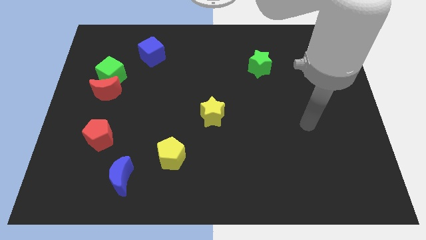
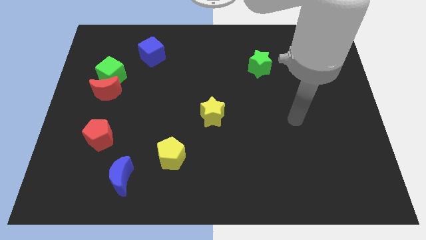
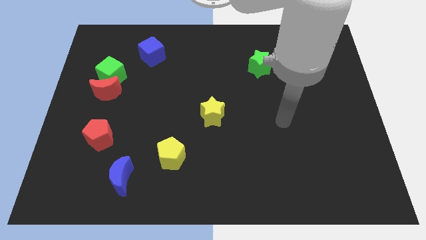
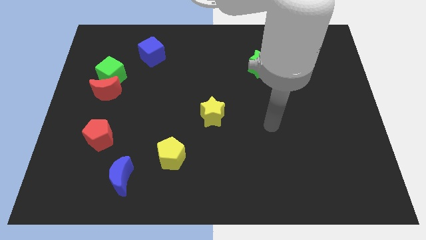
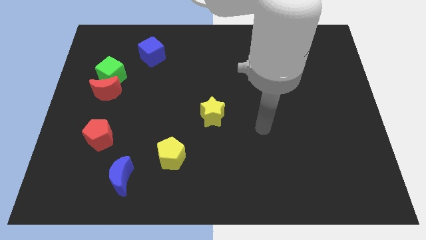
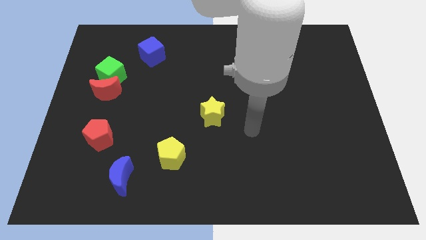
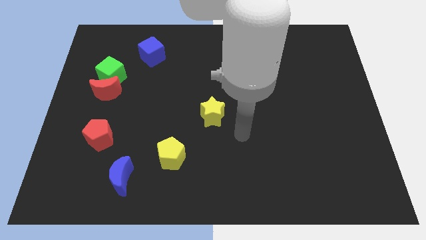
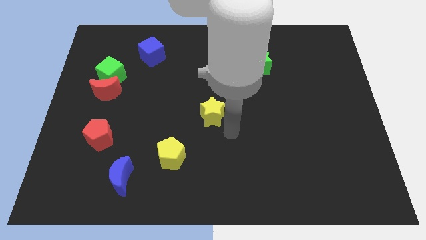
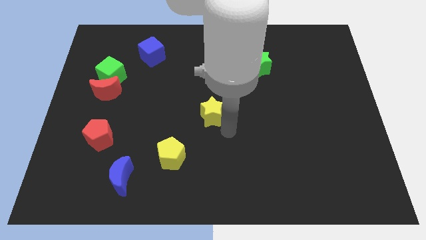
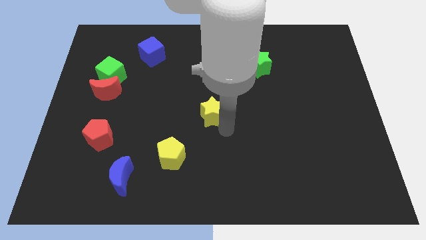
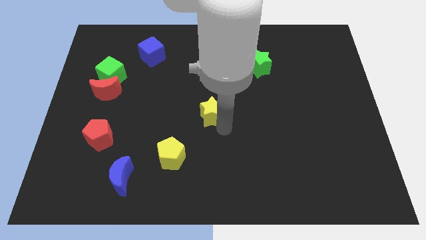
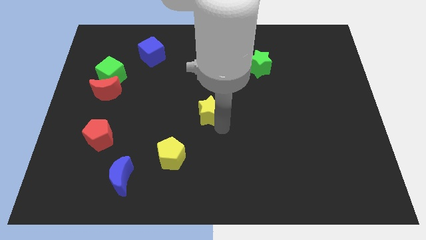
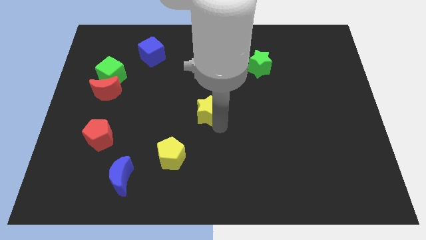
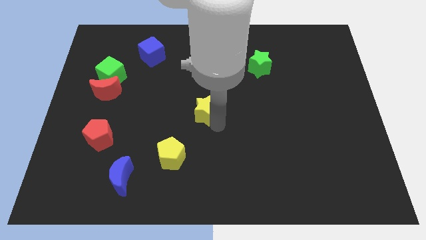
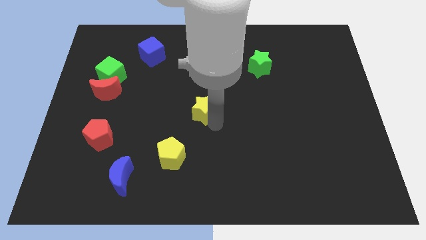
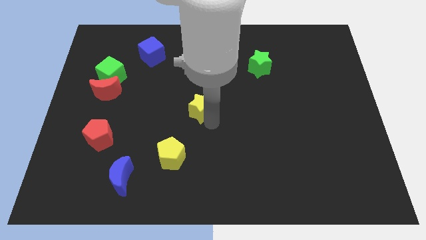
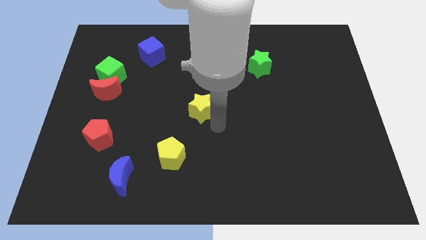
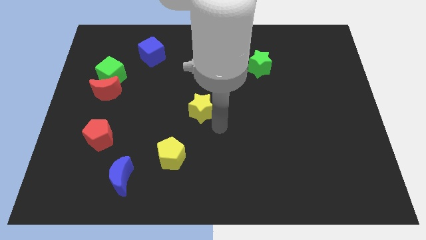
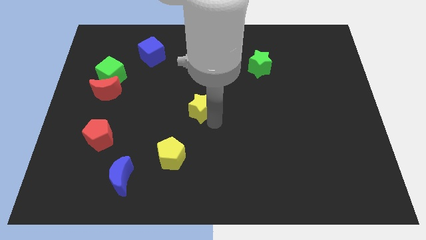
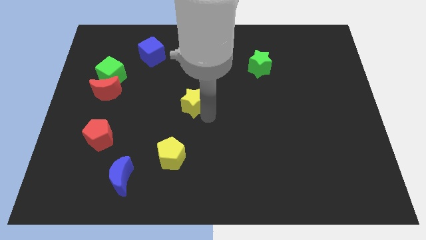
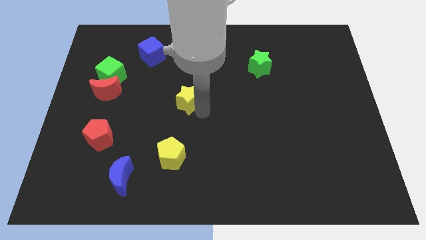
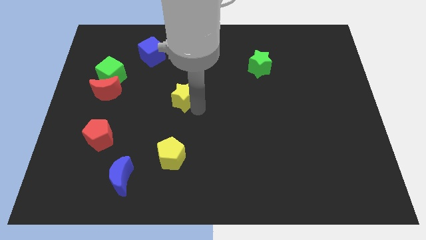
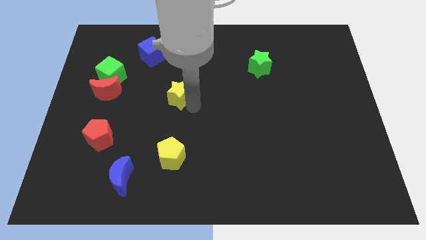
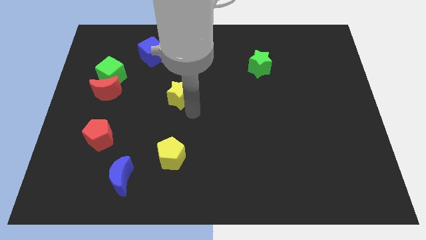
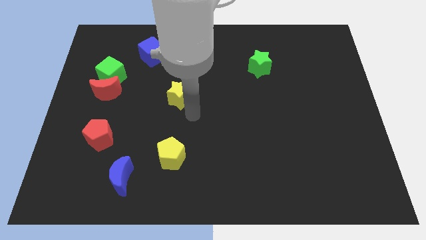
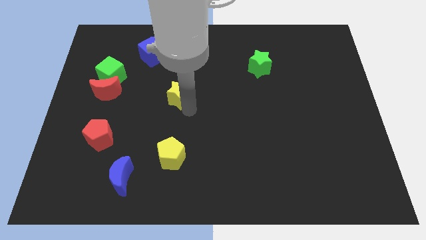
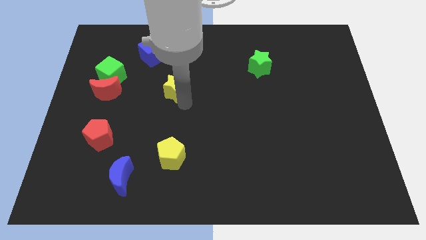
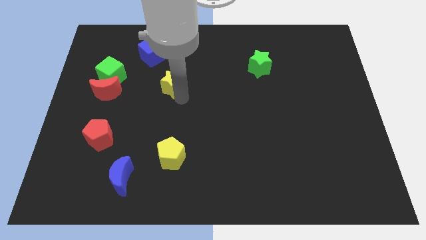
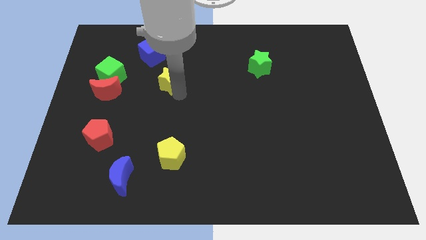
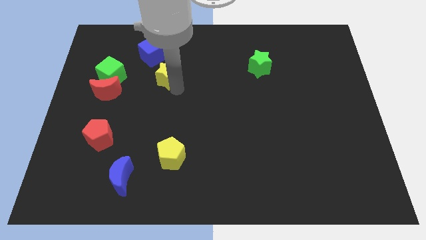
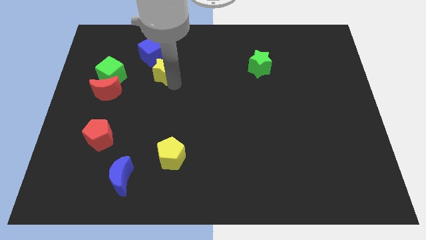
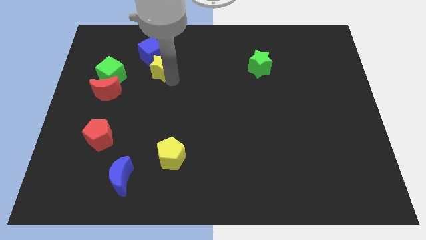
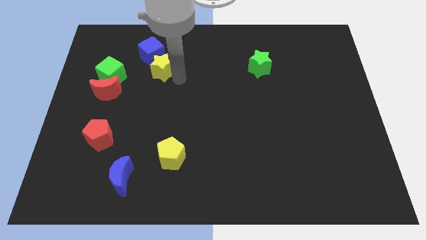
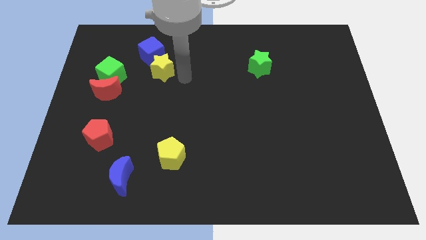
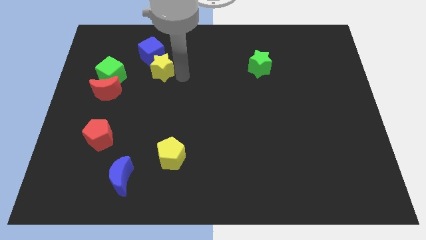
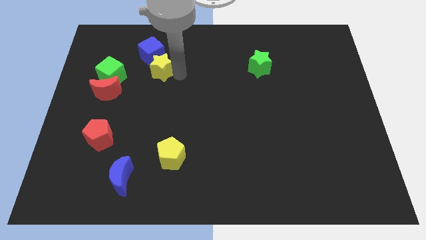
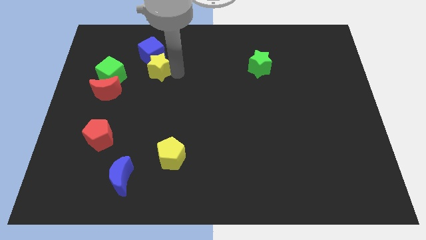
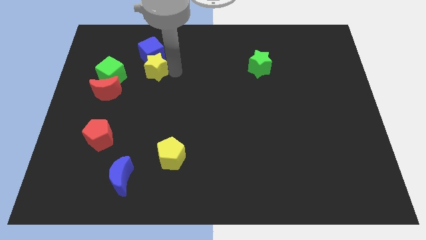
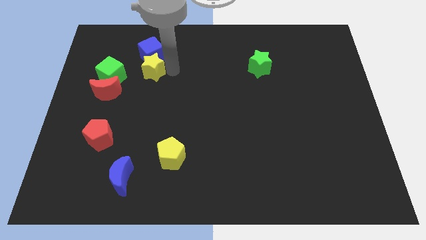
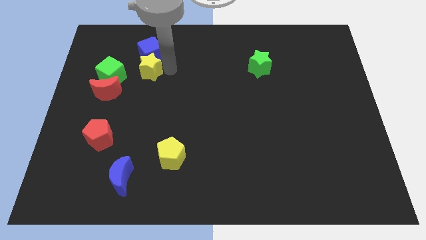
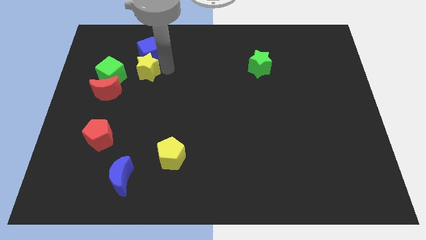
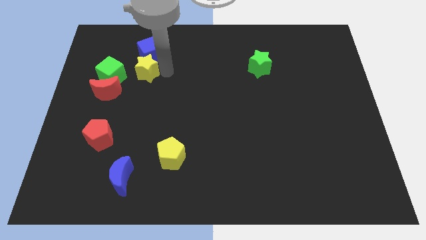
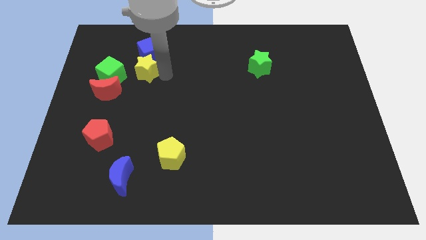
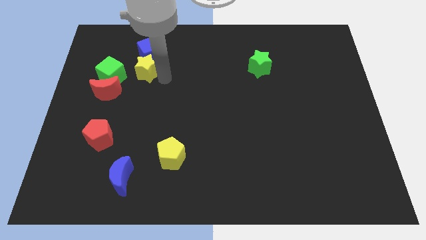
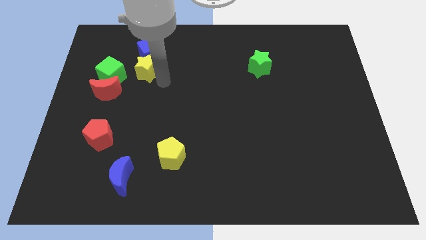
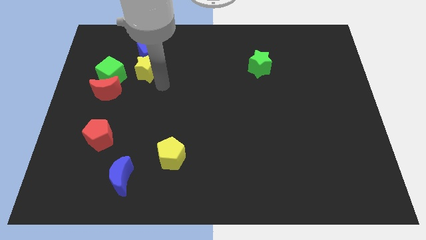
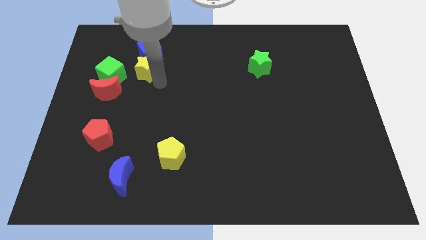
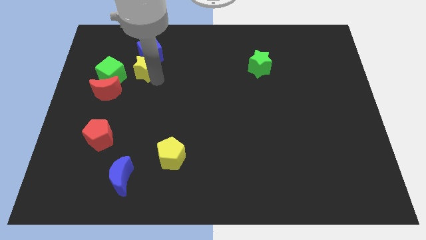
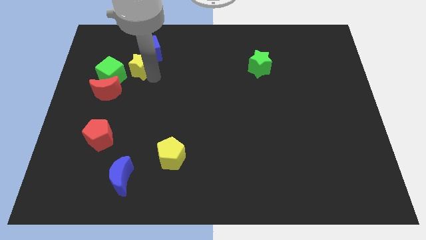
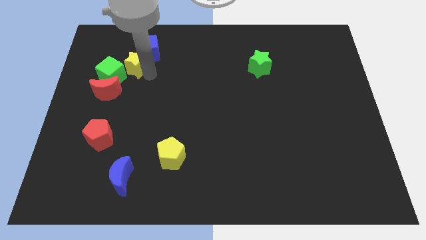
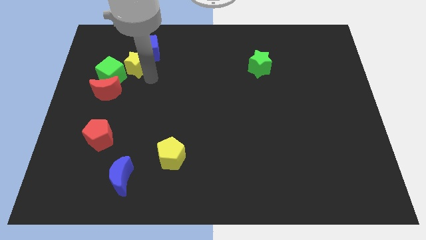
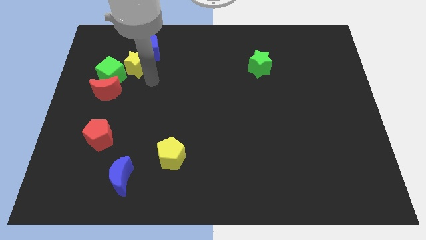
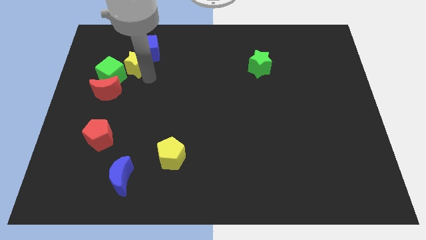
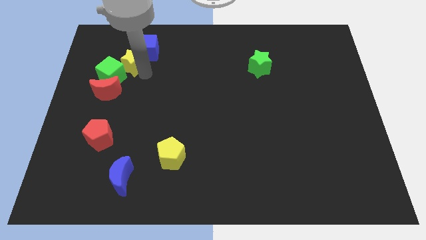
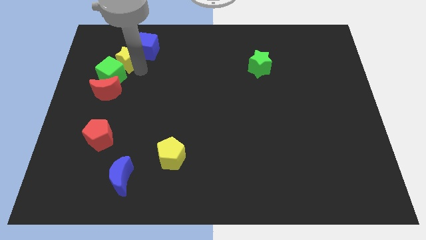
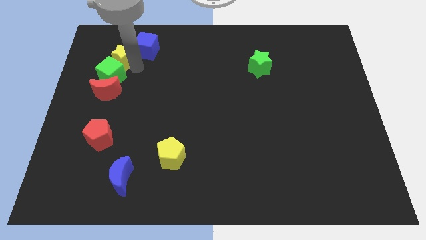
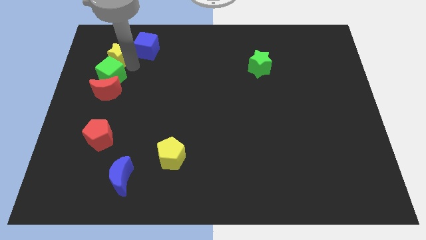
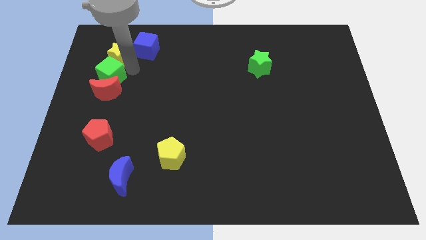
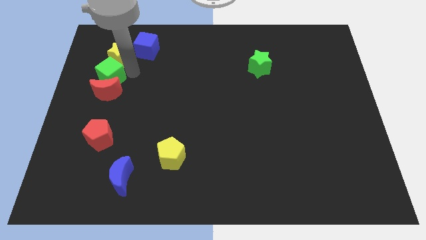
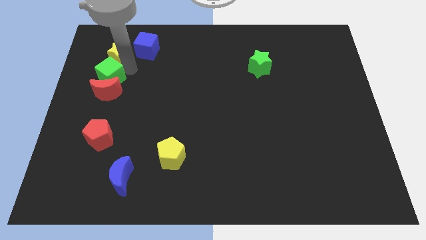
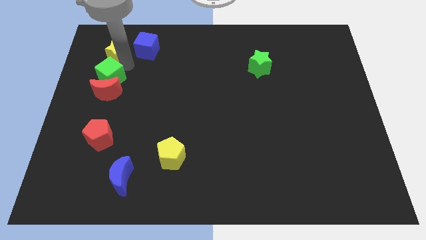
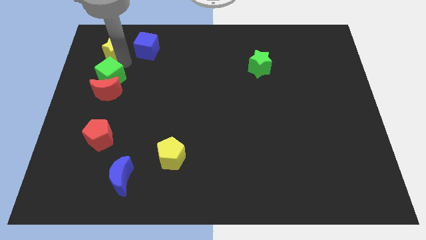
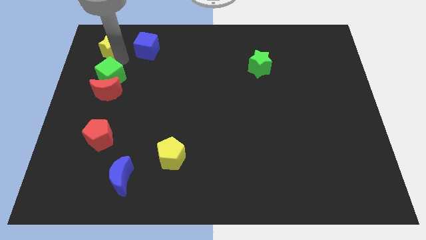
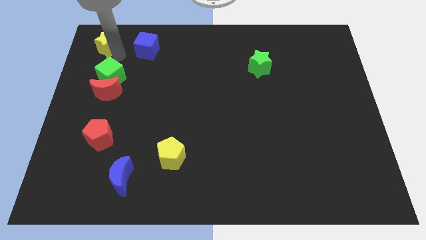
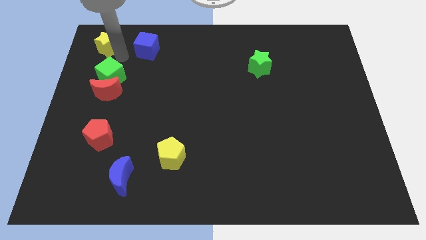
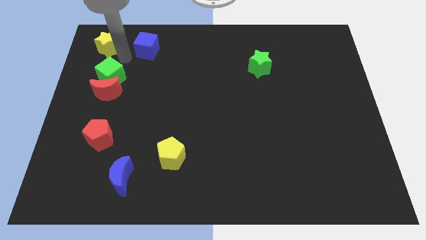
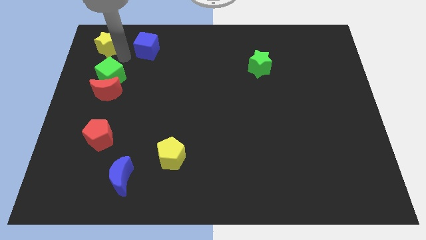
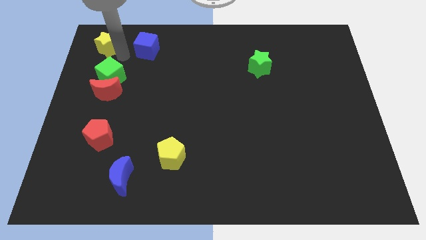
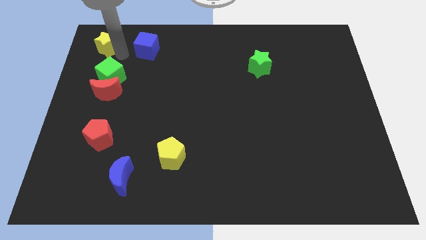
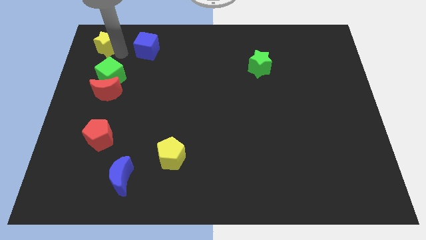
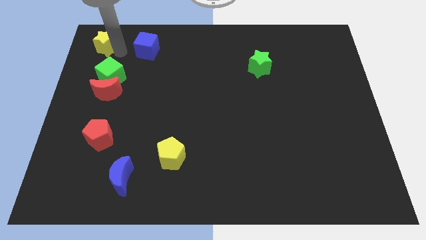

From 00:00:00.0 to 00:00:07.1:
put the yellow star to the top left of the board
